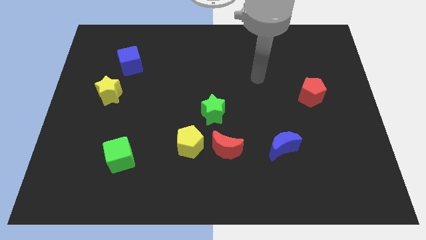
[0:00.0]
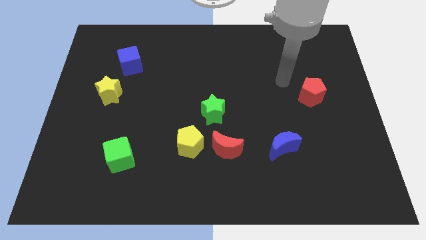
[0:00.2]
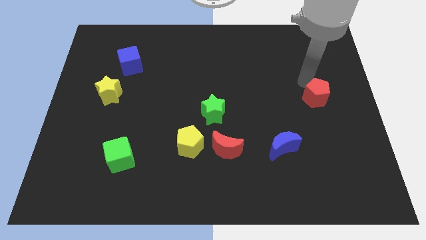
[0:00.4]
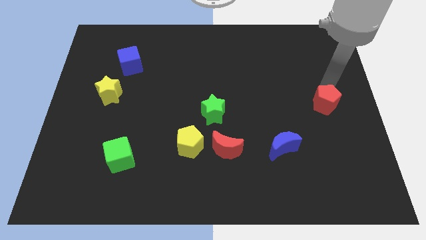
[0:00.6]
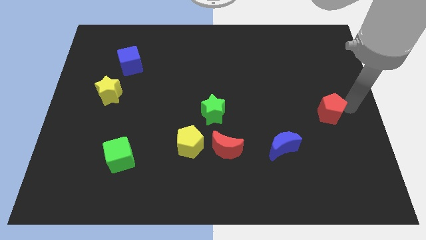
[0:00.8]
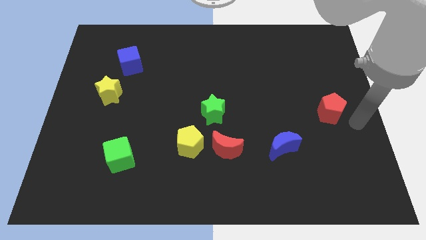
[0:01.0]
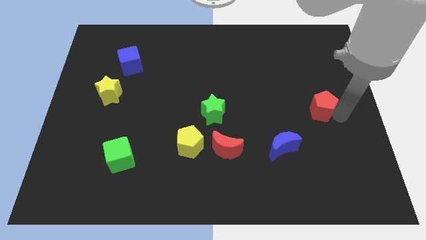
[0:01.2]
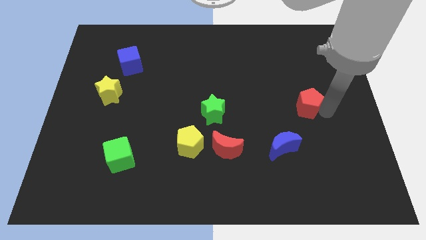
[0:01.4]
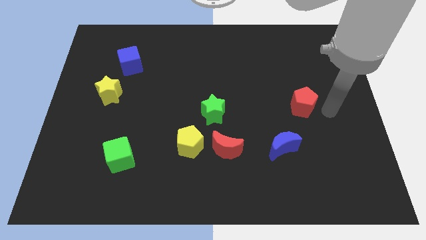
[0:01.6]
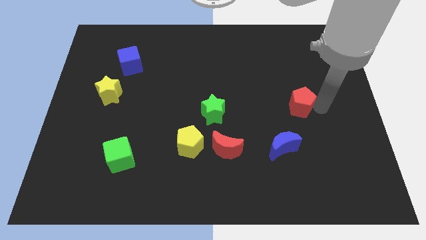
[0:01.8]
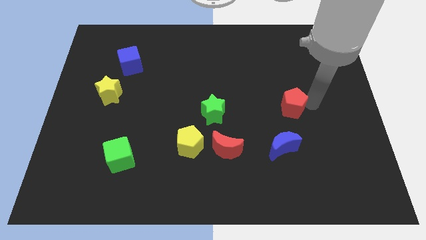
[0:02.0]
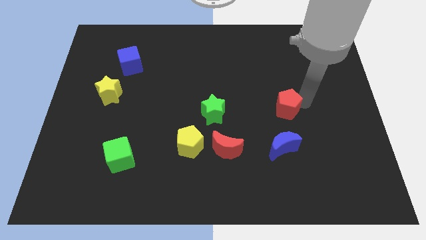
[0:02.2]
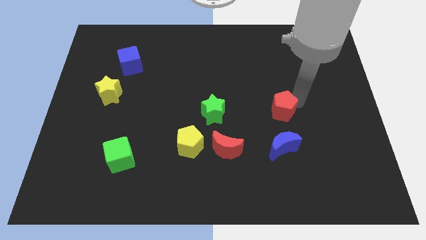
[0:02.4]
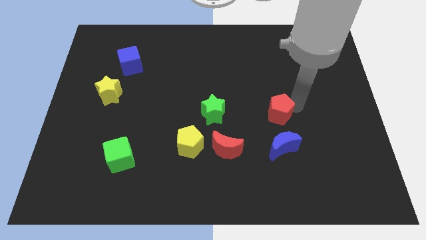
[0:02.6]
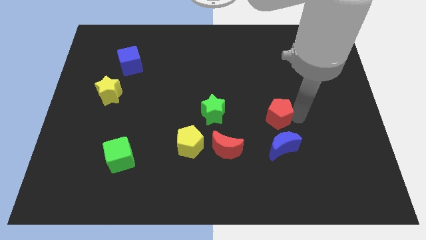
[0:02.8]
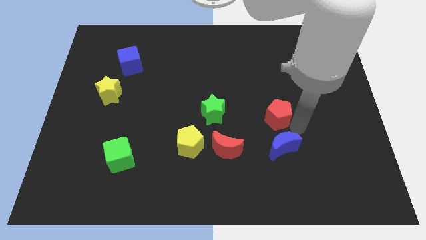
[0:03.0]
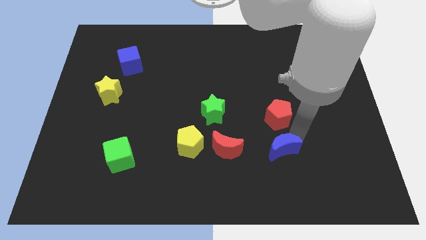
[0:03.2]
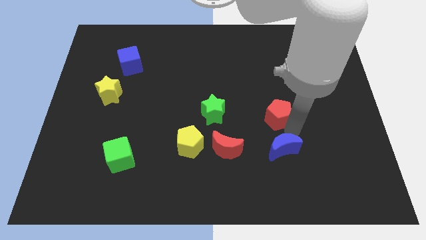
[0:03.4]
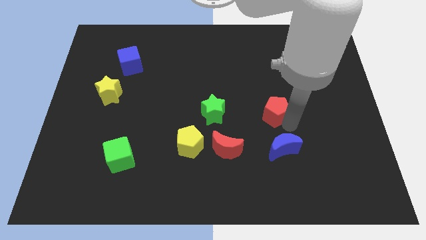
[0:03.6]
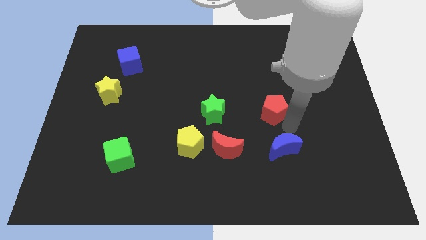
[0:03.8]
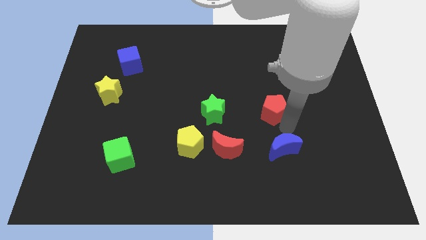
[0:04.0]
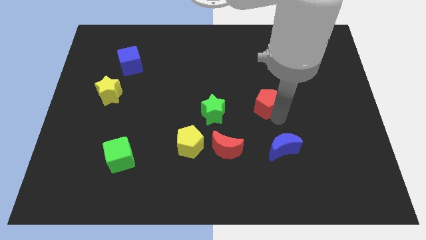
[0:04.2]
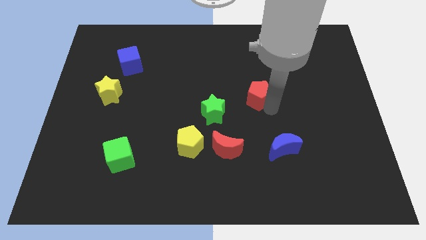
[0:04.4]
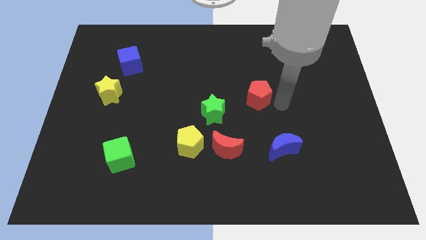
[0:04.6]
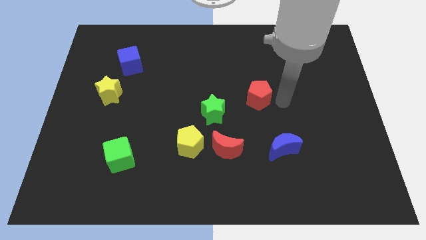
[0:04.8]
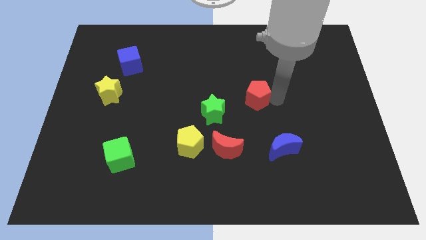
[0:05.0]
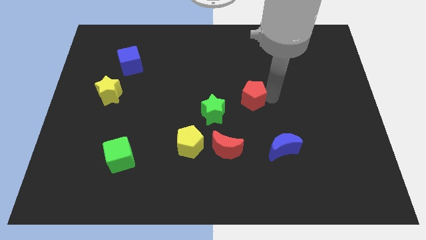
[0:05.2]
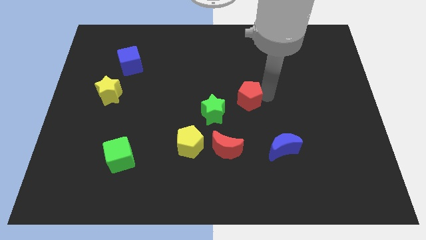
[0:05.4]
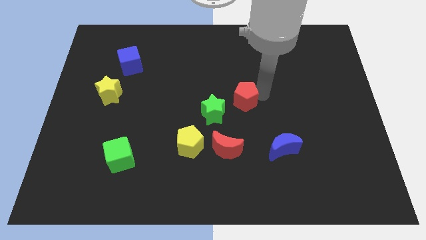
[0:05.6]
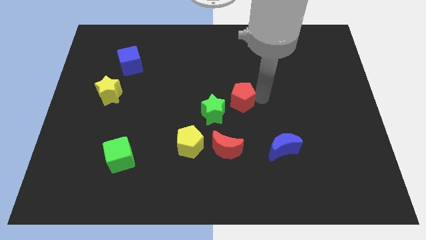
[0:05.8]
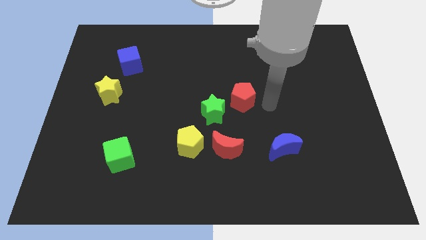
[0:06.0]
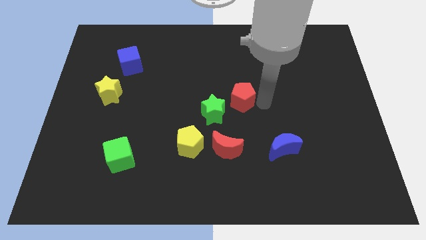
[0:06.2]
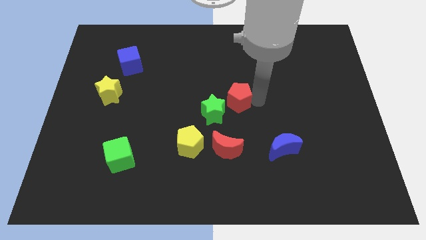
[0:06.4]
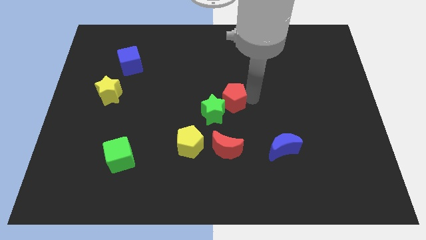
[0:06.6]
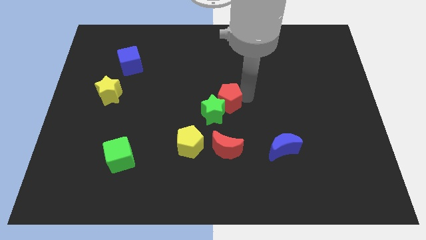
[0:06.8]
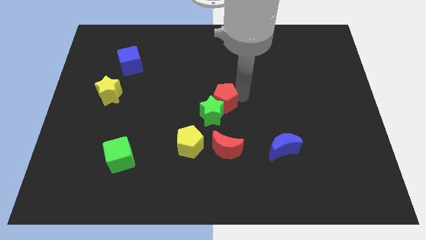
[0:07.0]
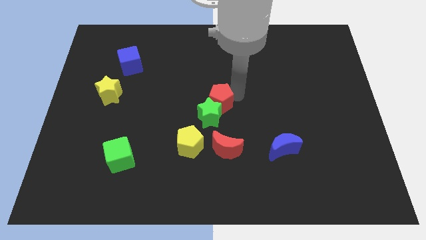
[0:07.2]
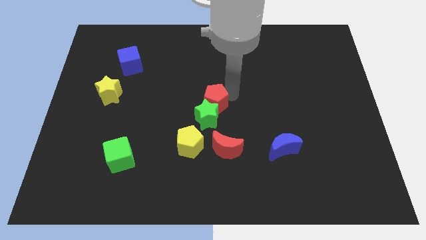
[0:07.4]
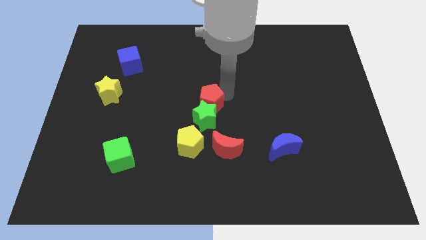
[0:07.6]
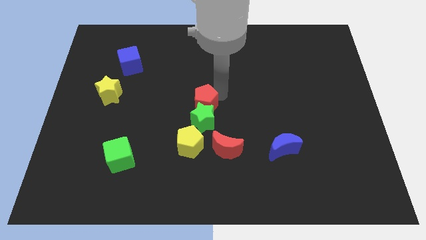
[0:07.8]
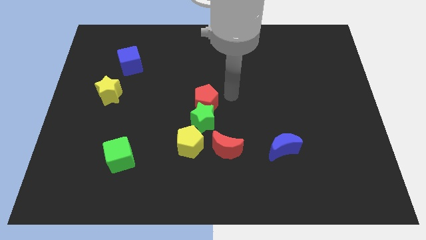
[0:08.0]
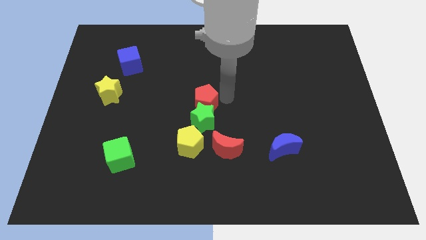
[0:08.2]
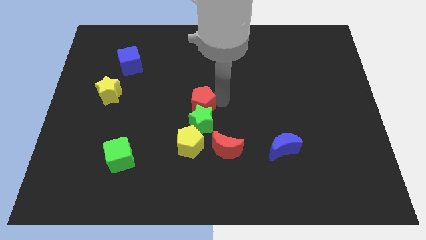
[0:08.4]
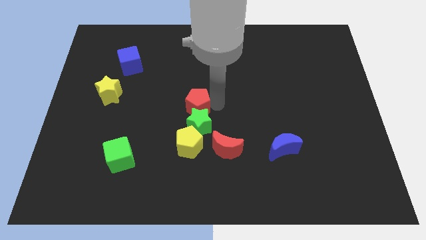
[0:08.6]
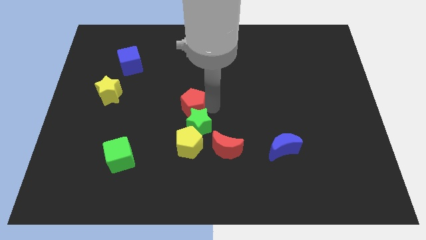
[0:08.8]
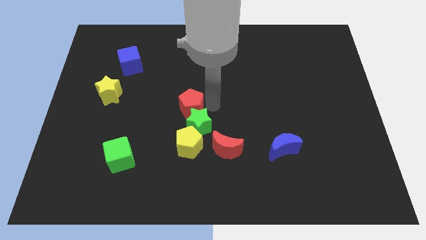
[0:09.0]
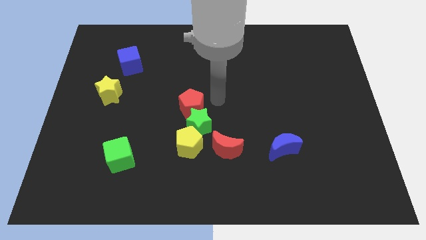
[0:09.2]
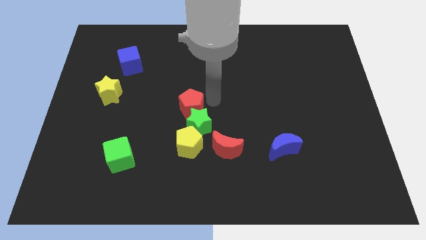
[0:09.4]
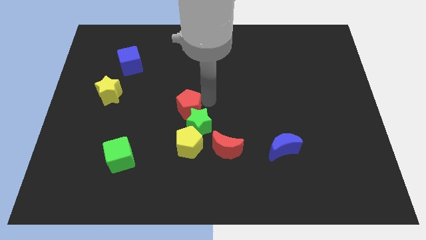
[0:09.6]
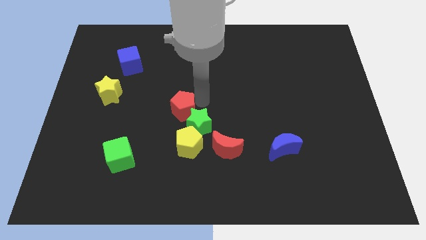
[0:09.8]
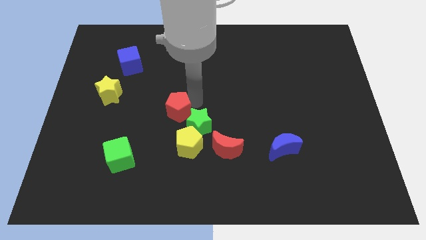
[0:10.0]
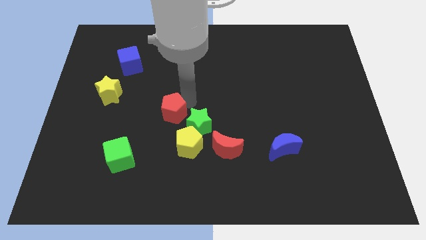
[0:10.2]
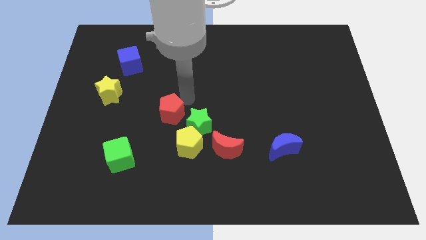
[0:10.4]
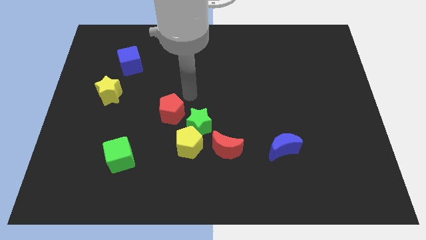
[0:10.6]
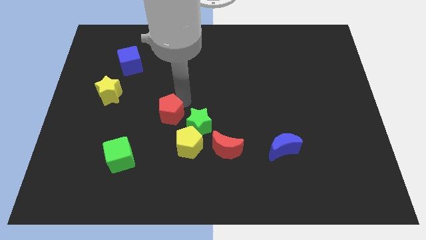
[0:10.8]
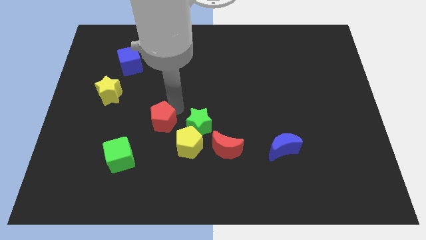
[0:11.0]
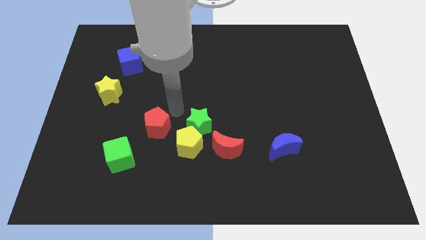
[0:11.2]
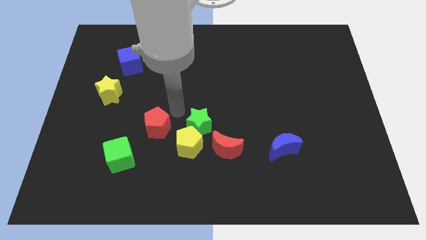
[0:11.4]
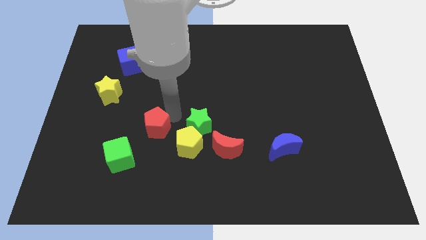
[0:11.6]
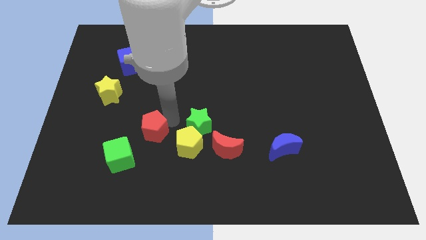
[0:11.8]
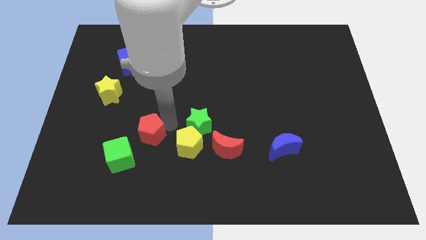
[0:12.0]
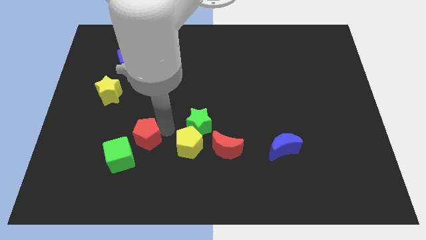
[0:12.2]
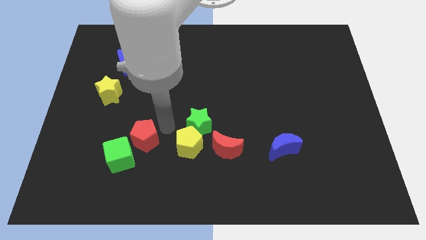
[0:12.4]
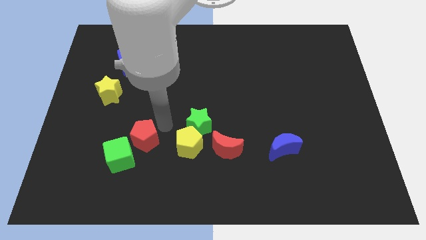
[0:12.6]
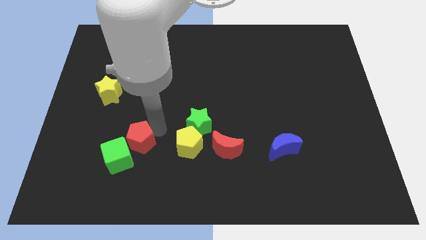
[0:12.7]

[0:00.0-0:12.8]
push the red pentagon close to the green cube

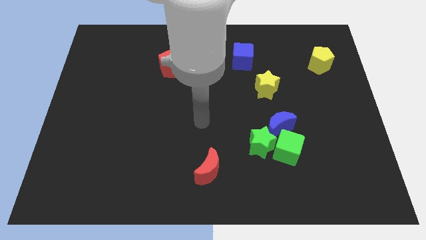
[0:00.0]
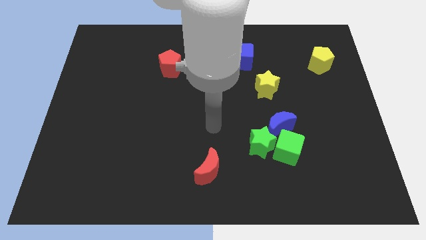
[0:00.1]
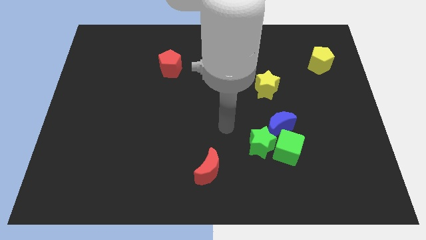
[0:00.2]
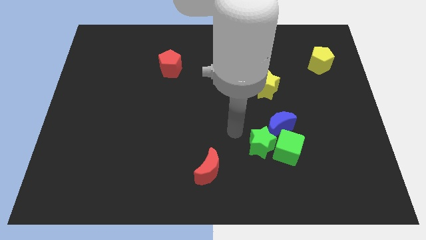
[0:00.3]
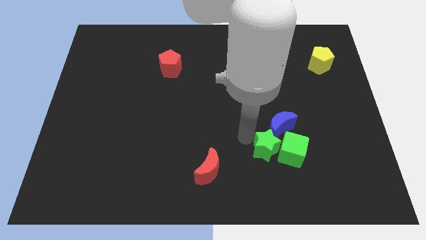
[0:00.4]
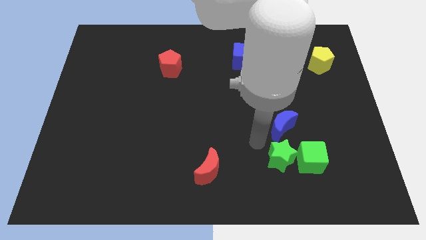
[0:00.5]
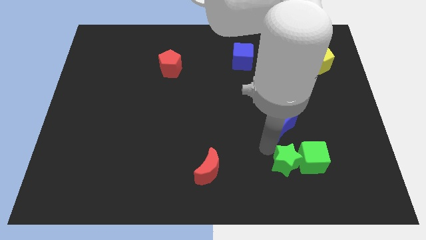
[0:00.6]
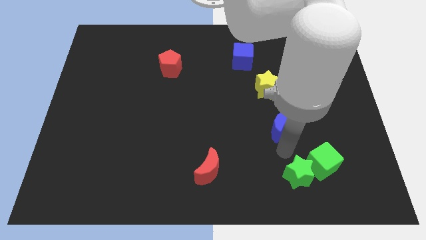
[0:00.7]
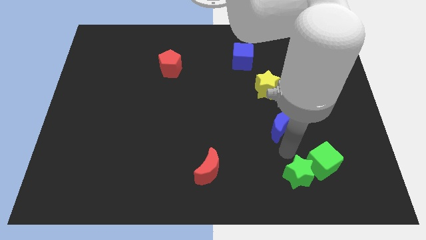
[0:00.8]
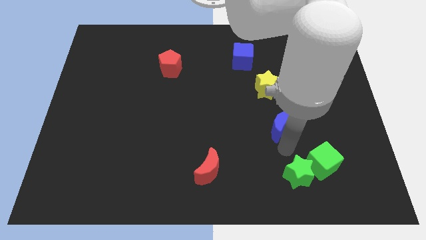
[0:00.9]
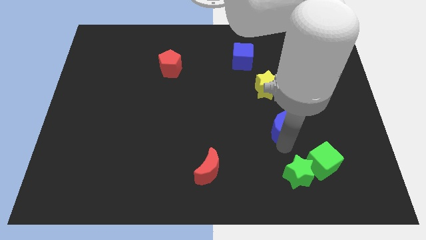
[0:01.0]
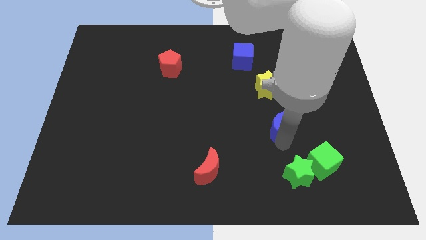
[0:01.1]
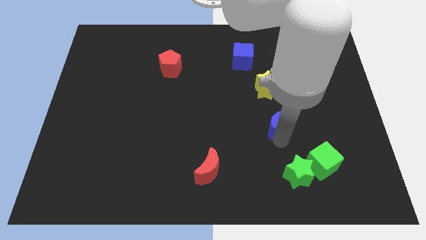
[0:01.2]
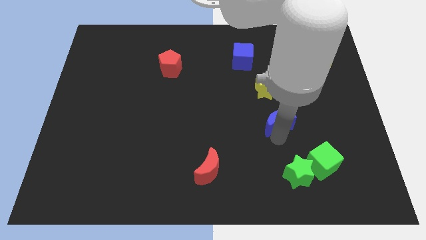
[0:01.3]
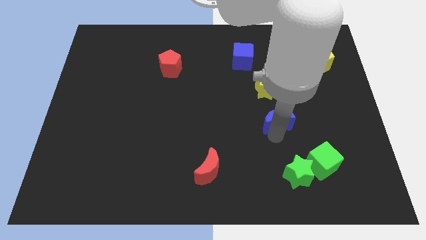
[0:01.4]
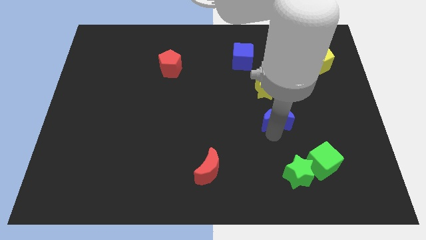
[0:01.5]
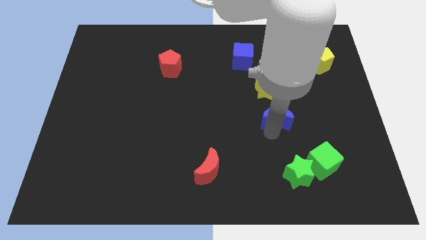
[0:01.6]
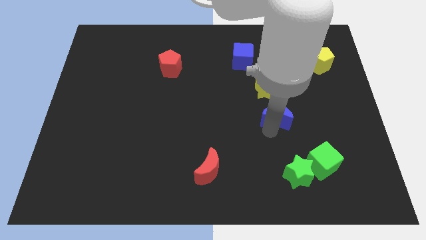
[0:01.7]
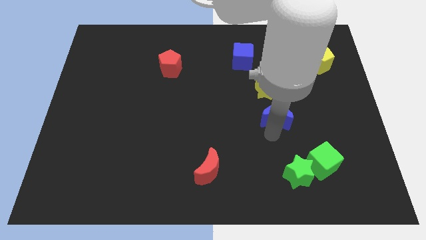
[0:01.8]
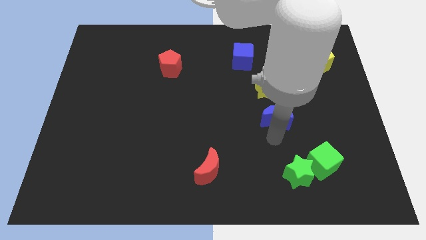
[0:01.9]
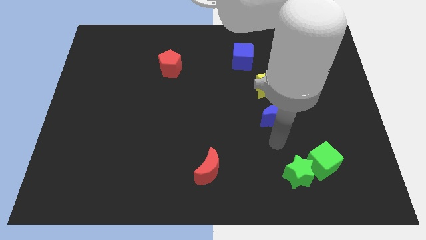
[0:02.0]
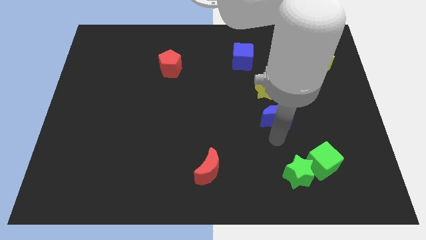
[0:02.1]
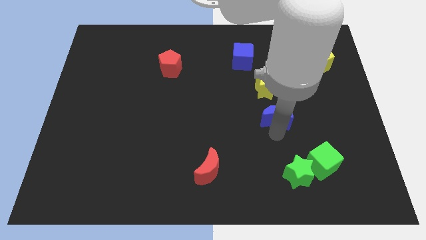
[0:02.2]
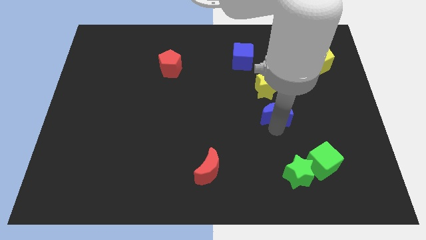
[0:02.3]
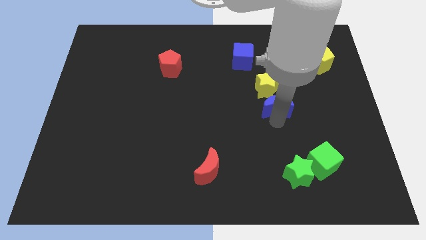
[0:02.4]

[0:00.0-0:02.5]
put the blue moon towards the yellow star
